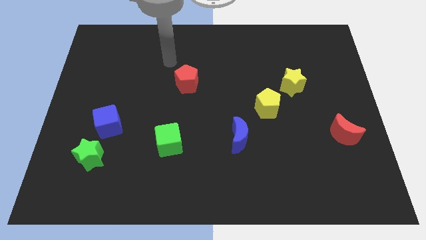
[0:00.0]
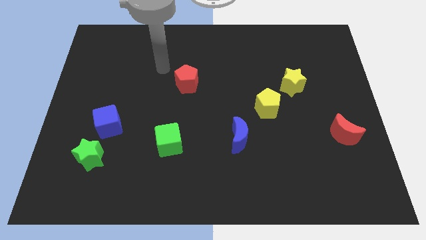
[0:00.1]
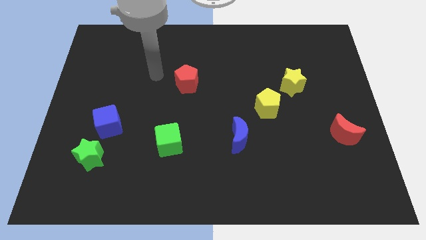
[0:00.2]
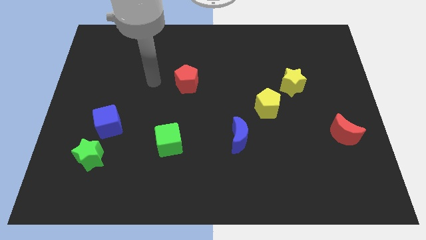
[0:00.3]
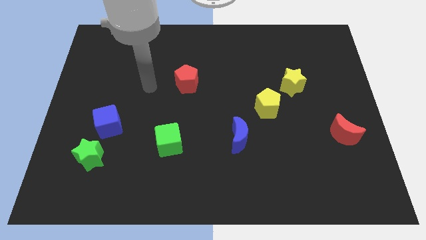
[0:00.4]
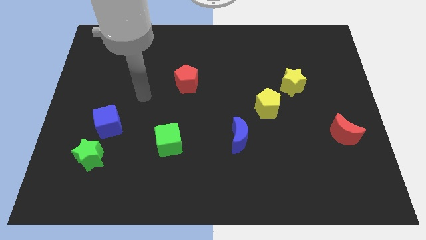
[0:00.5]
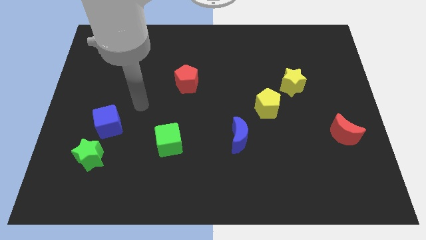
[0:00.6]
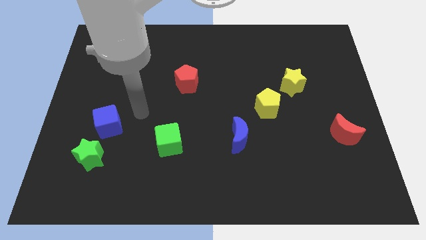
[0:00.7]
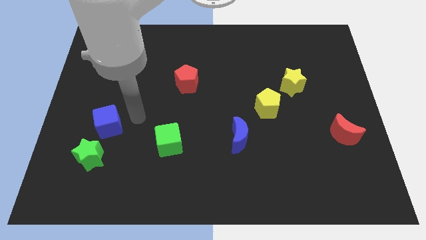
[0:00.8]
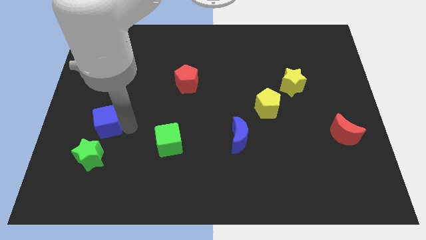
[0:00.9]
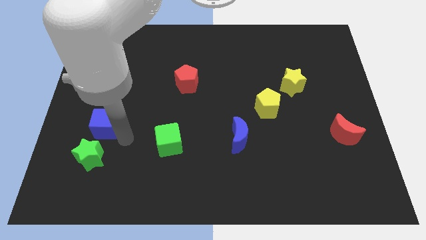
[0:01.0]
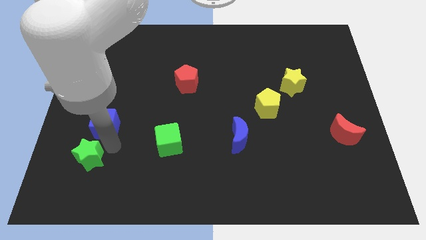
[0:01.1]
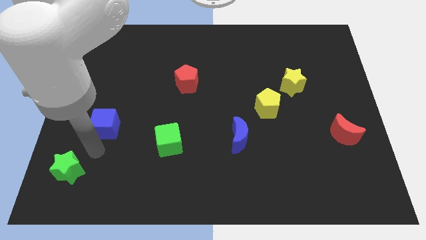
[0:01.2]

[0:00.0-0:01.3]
move the blue cube away from the green star

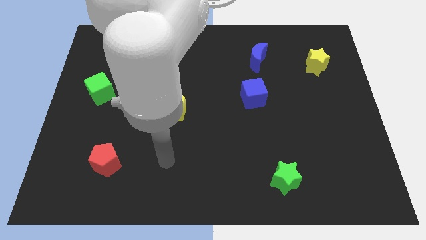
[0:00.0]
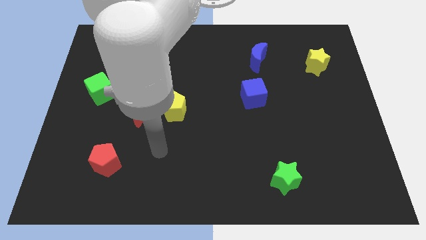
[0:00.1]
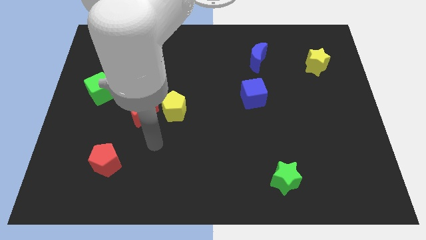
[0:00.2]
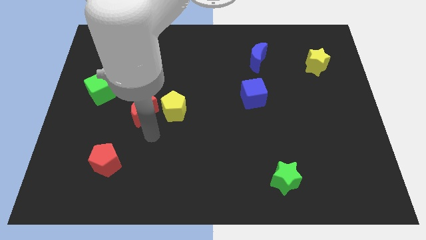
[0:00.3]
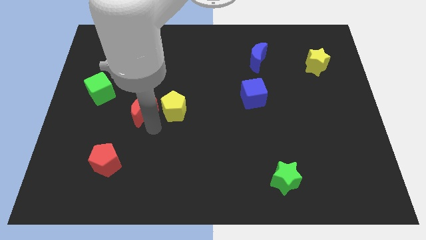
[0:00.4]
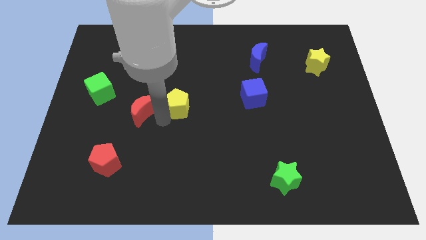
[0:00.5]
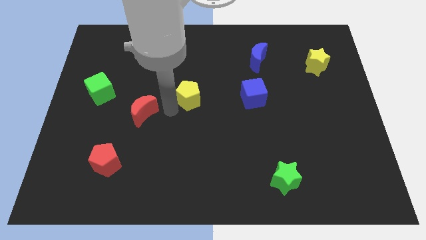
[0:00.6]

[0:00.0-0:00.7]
move the red moon away from the yellow pentagon

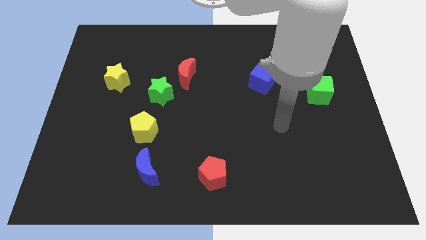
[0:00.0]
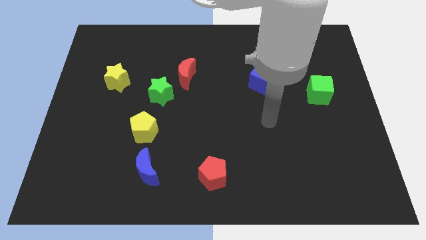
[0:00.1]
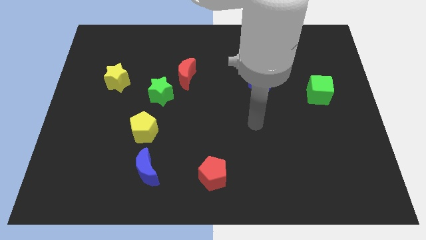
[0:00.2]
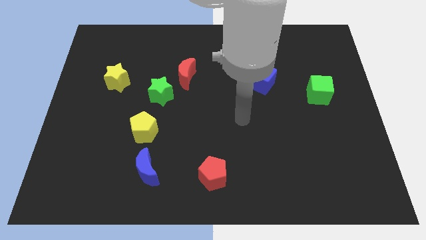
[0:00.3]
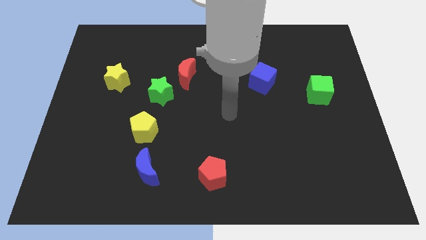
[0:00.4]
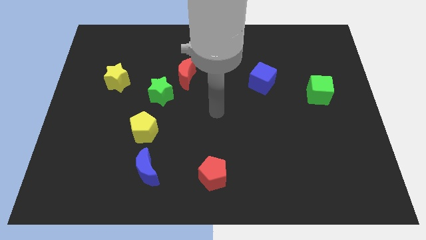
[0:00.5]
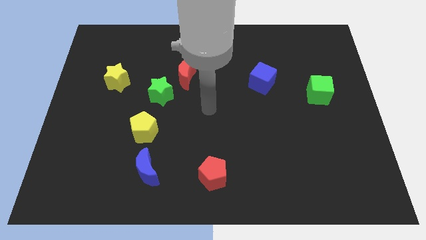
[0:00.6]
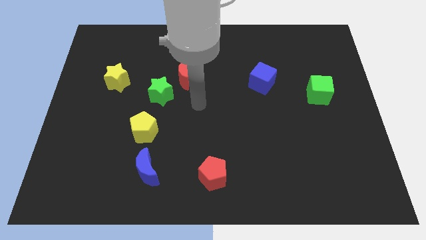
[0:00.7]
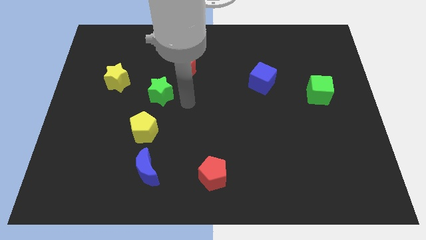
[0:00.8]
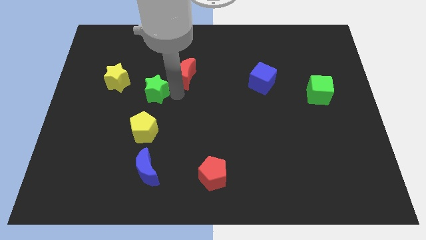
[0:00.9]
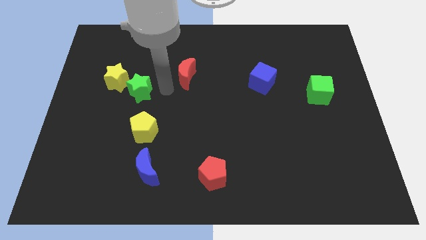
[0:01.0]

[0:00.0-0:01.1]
move the red moon away from the green star

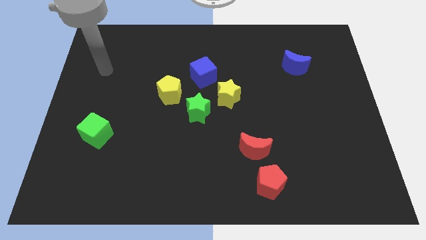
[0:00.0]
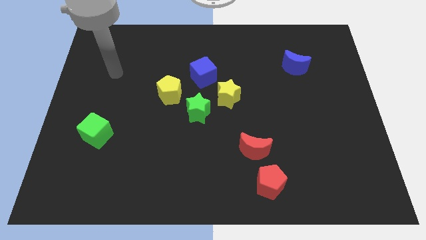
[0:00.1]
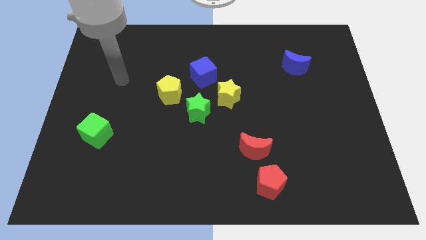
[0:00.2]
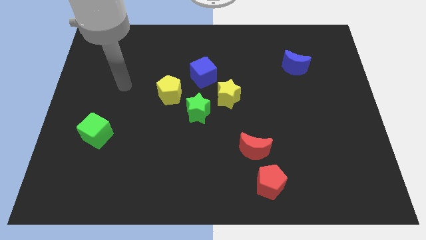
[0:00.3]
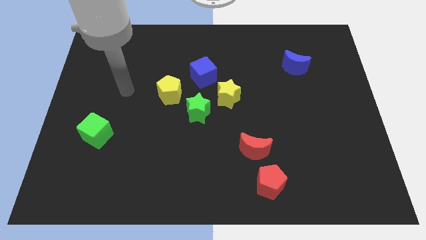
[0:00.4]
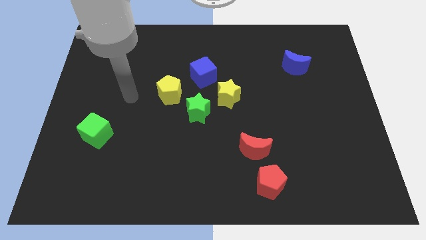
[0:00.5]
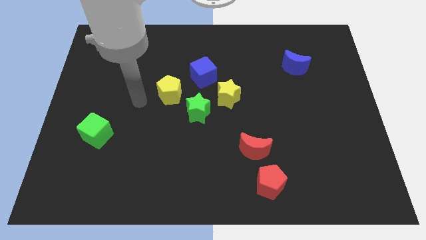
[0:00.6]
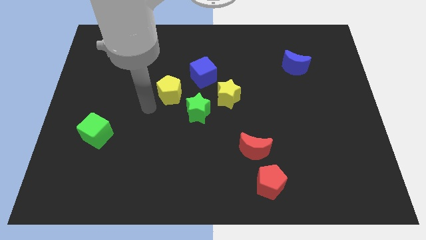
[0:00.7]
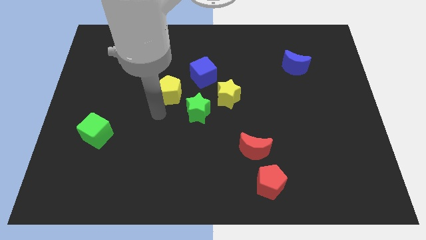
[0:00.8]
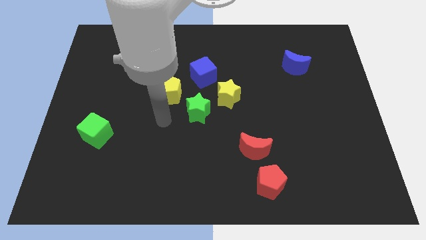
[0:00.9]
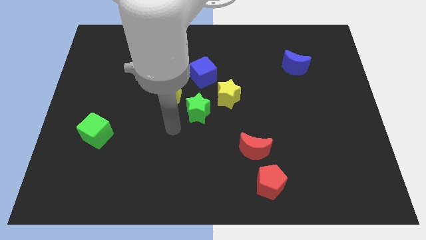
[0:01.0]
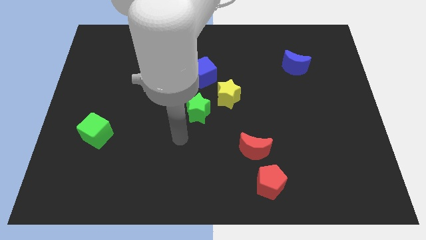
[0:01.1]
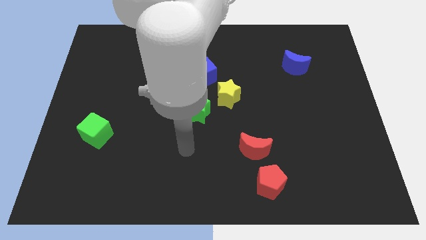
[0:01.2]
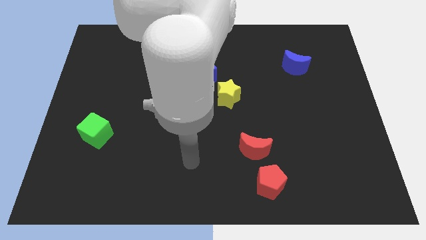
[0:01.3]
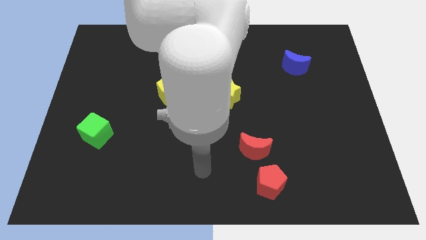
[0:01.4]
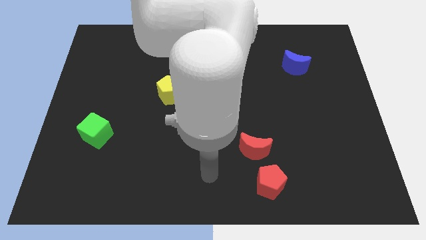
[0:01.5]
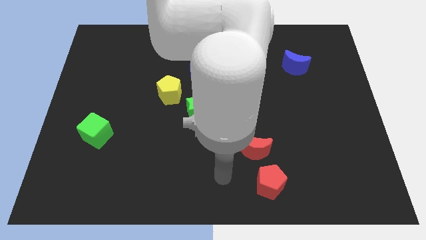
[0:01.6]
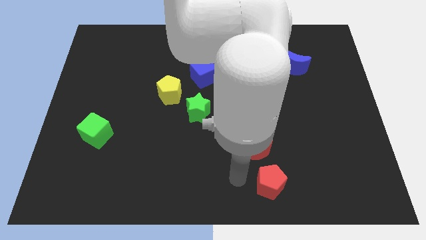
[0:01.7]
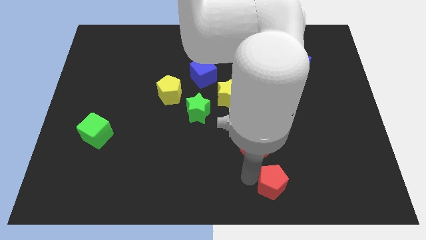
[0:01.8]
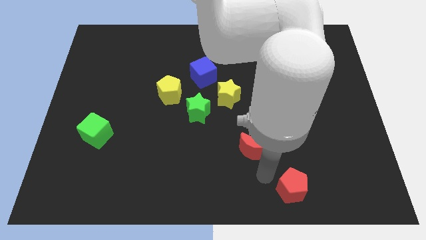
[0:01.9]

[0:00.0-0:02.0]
move the red moon away from the red pentagon

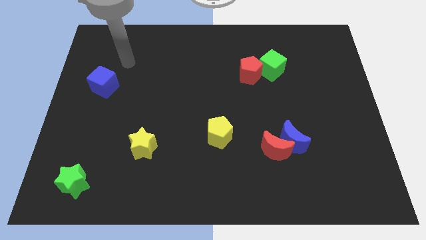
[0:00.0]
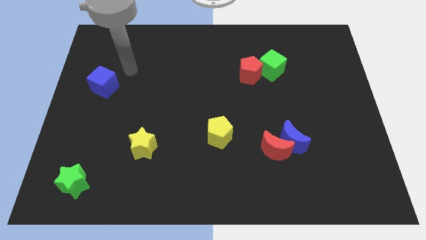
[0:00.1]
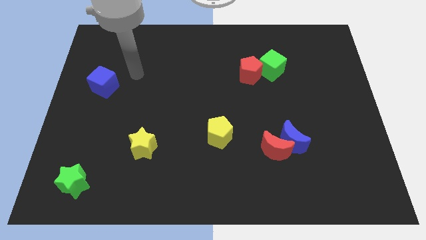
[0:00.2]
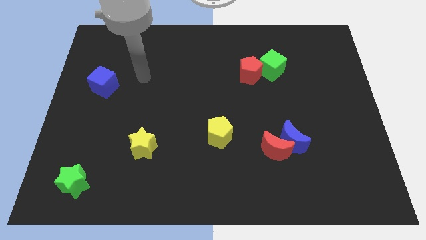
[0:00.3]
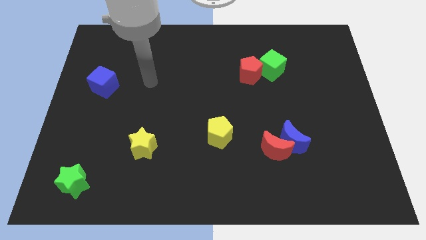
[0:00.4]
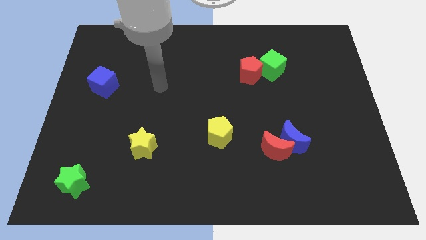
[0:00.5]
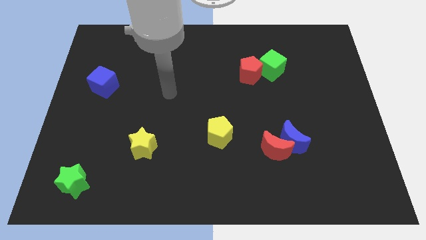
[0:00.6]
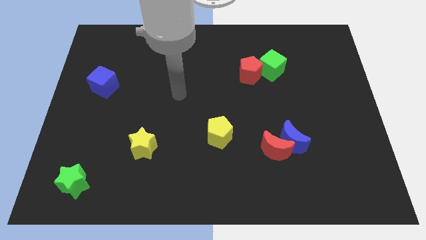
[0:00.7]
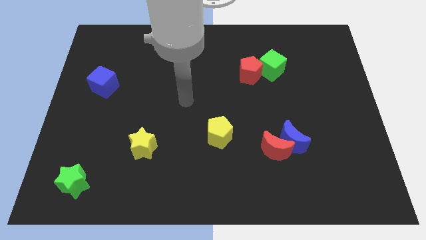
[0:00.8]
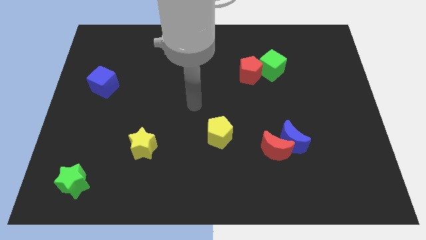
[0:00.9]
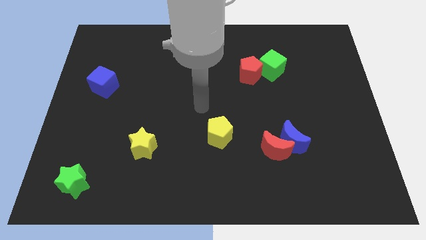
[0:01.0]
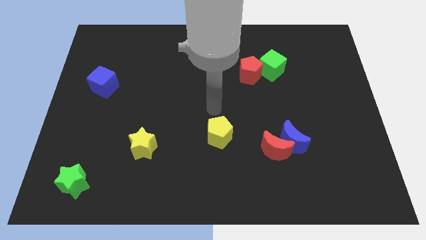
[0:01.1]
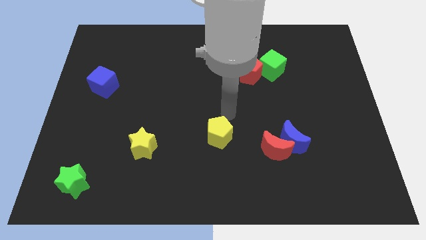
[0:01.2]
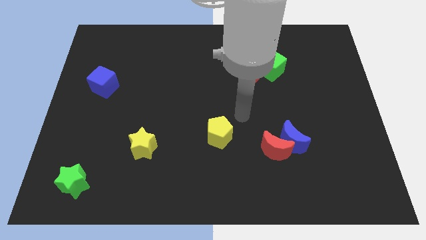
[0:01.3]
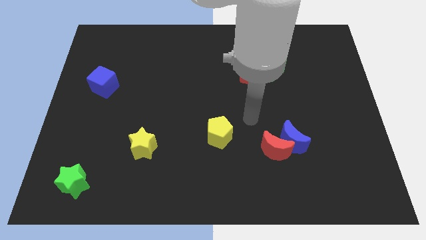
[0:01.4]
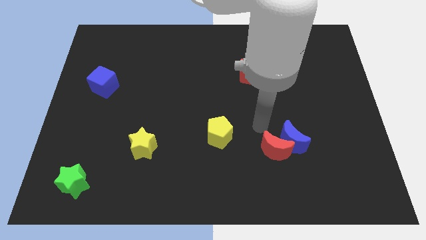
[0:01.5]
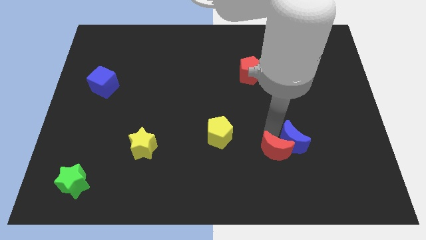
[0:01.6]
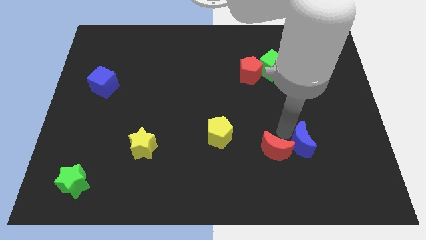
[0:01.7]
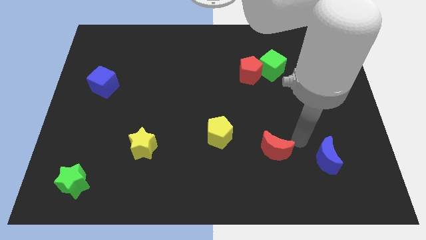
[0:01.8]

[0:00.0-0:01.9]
separate the red moon from the blue moon

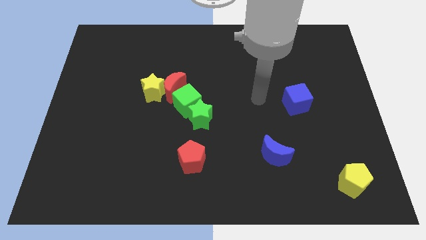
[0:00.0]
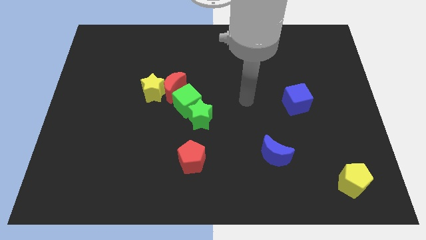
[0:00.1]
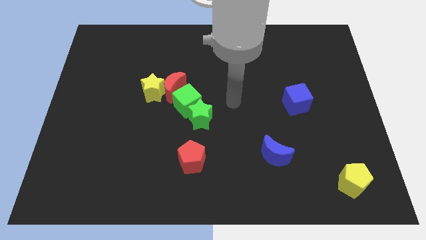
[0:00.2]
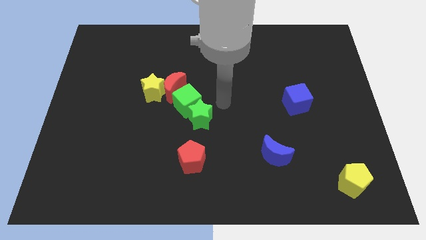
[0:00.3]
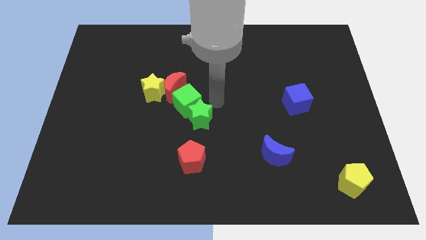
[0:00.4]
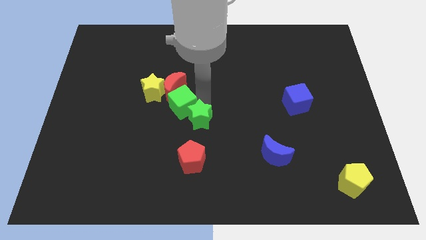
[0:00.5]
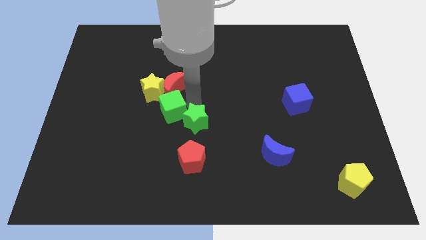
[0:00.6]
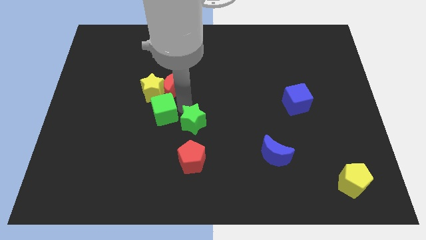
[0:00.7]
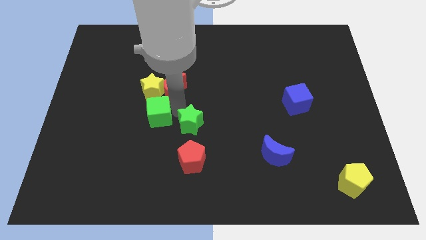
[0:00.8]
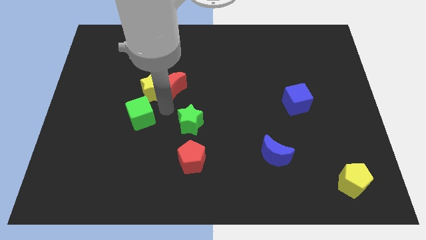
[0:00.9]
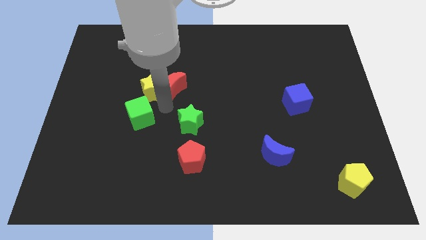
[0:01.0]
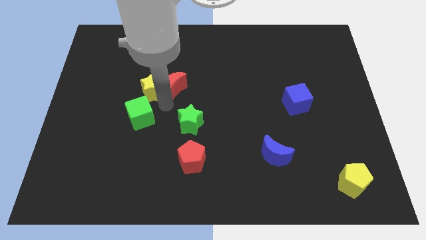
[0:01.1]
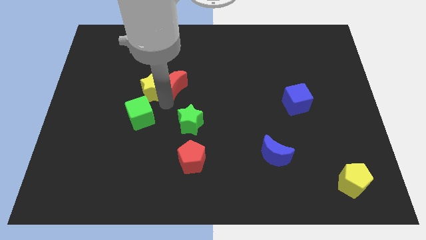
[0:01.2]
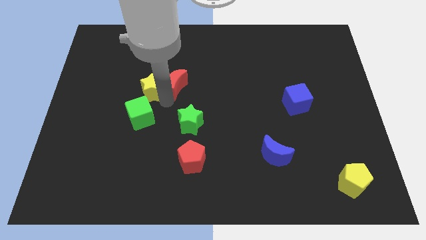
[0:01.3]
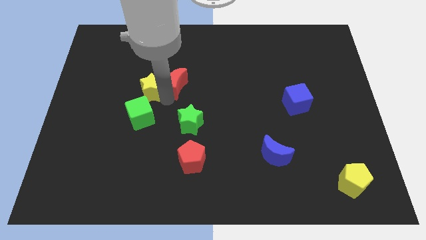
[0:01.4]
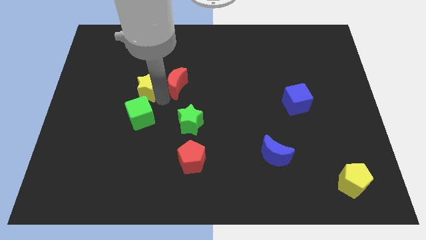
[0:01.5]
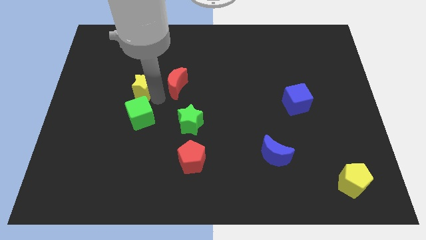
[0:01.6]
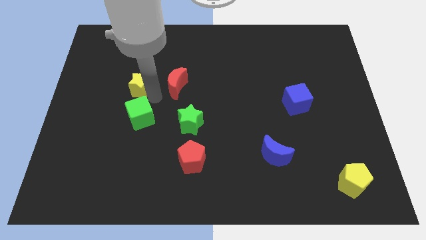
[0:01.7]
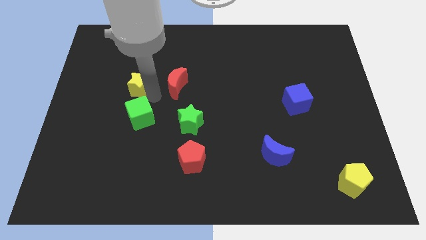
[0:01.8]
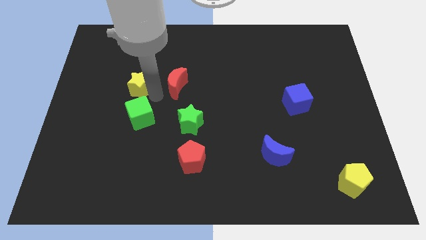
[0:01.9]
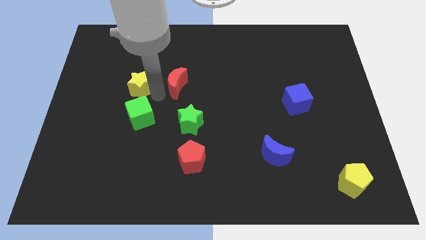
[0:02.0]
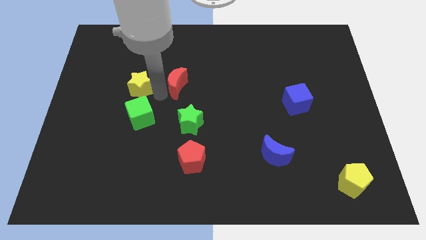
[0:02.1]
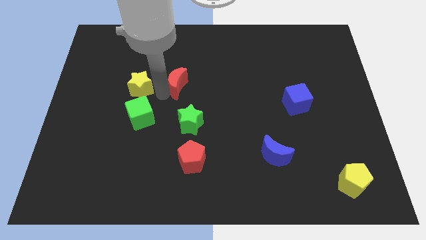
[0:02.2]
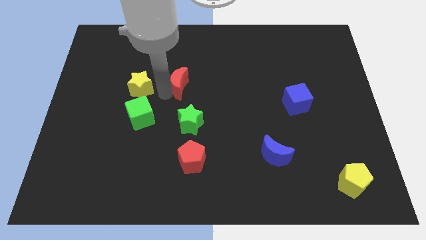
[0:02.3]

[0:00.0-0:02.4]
separate the red moon from the yellow star and green cube
